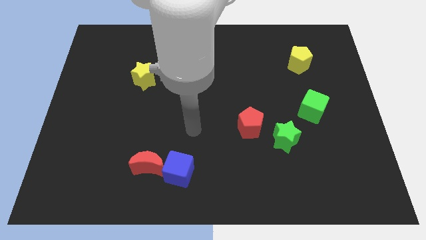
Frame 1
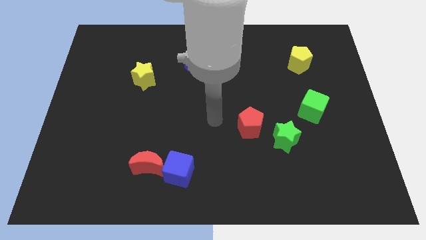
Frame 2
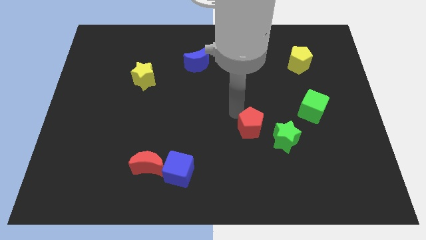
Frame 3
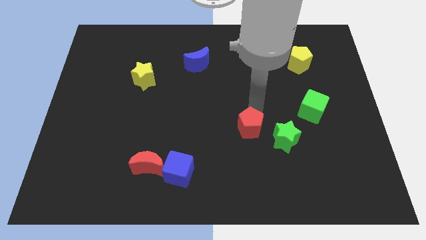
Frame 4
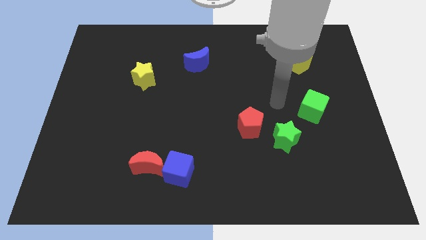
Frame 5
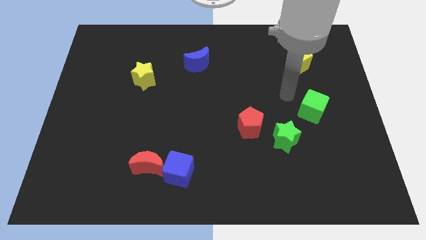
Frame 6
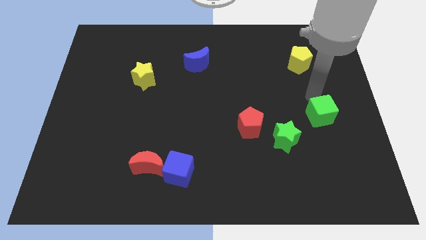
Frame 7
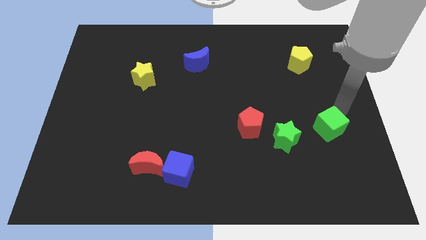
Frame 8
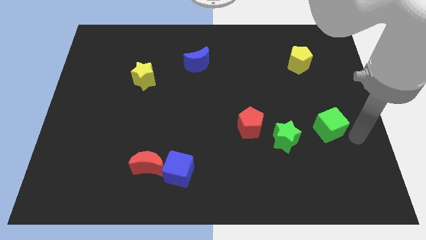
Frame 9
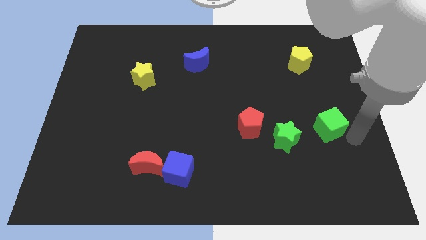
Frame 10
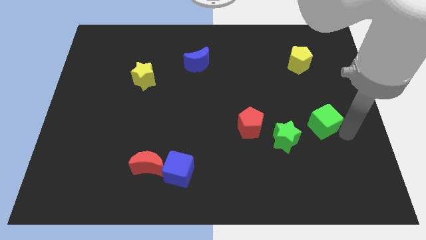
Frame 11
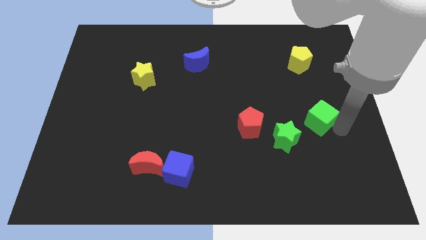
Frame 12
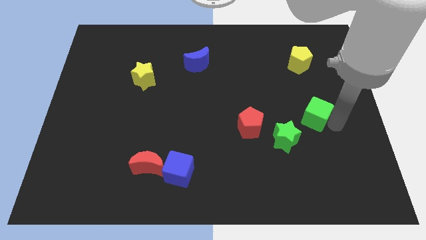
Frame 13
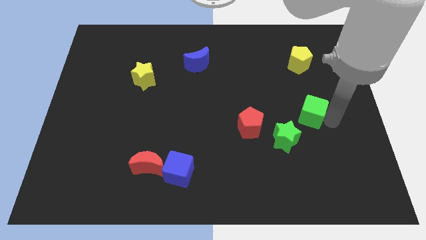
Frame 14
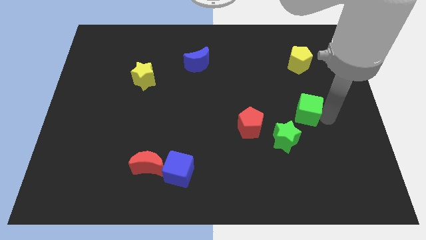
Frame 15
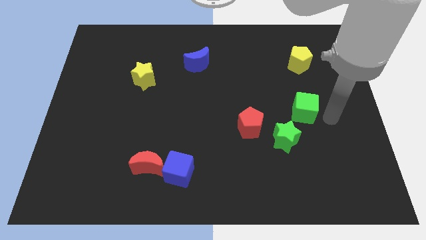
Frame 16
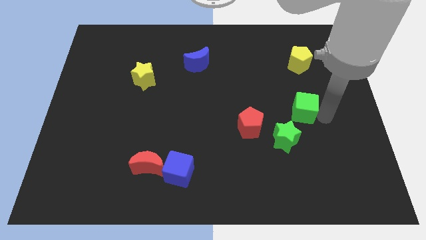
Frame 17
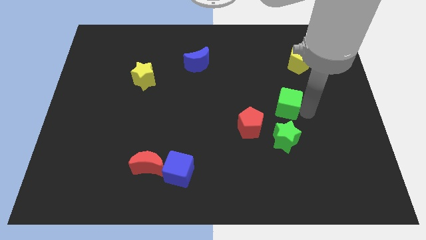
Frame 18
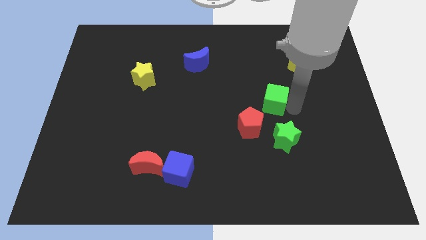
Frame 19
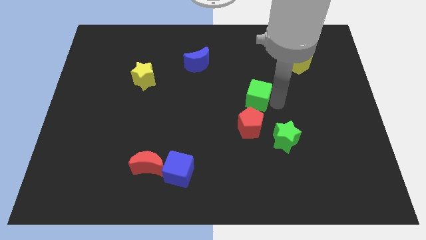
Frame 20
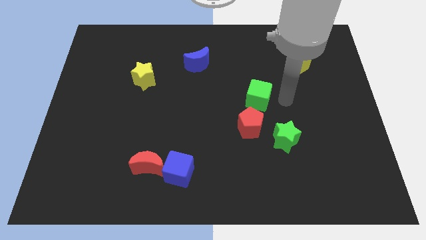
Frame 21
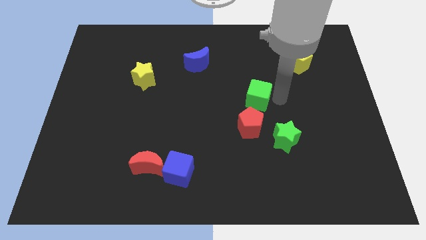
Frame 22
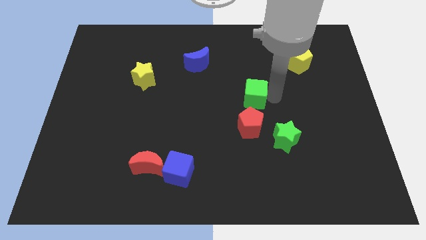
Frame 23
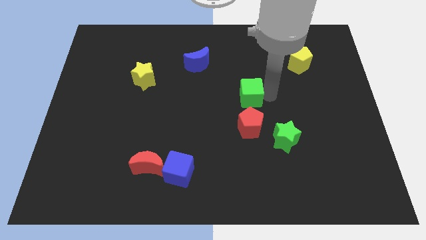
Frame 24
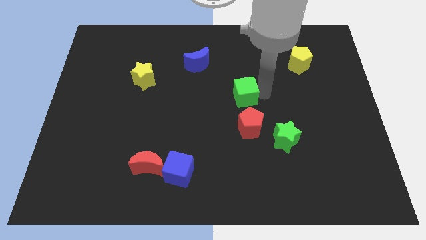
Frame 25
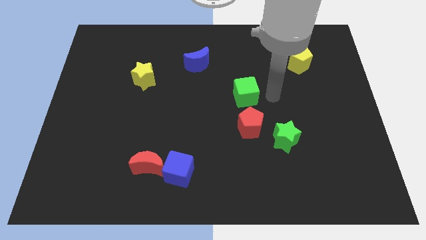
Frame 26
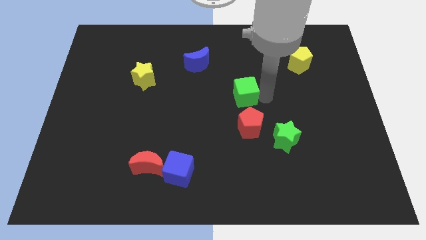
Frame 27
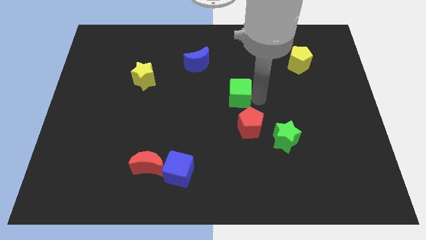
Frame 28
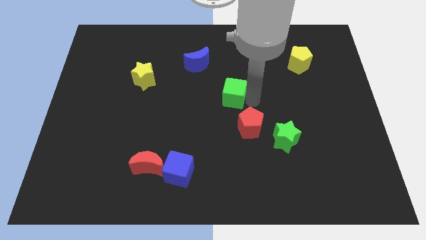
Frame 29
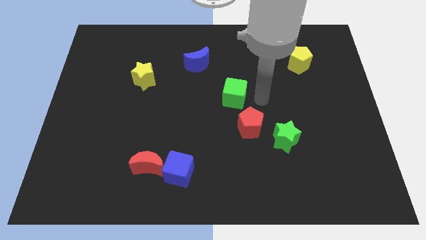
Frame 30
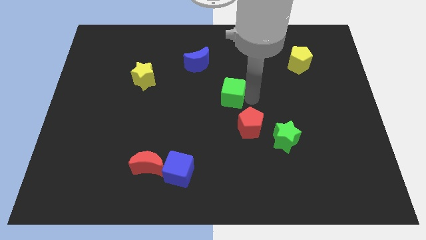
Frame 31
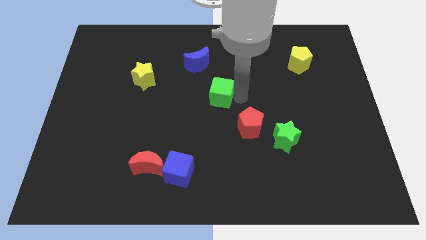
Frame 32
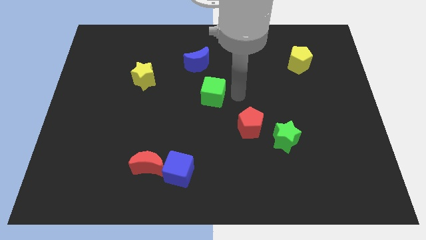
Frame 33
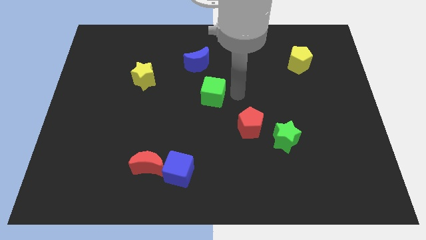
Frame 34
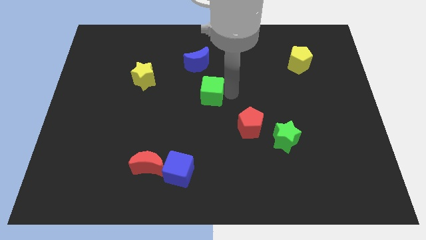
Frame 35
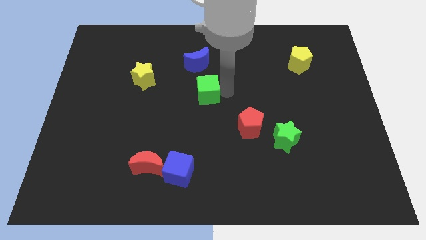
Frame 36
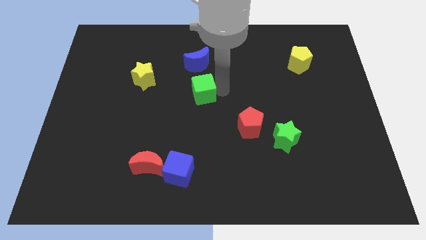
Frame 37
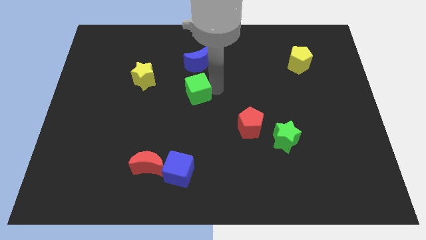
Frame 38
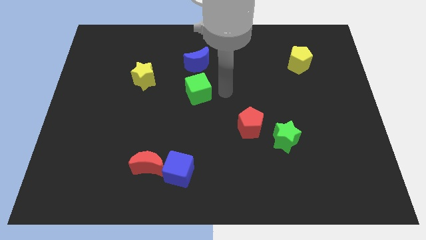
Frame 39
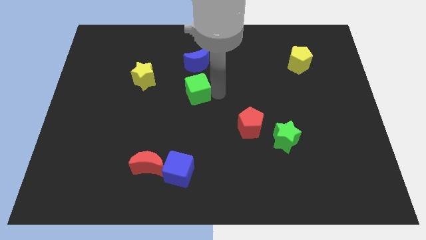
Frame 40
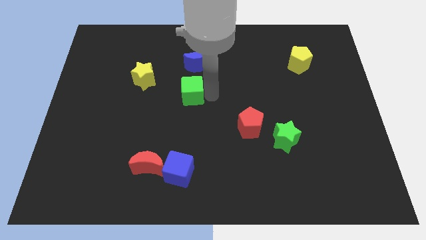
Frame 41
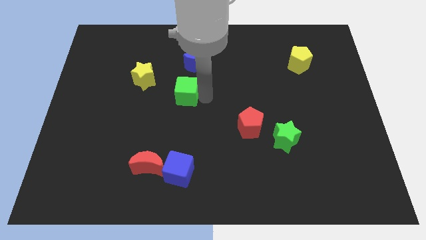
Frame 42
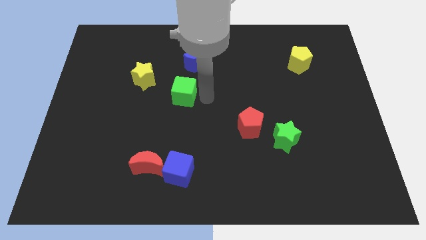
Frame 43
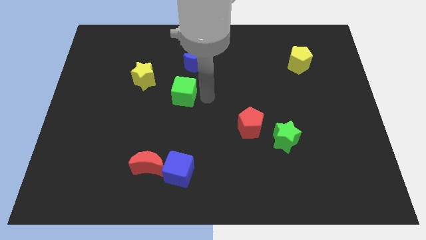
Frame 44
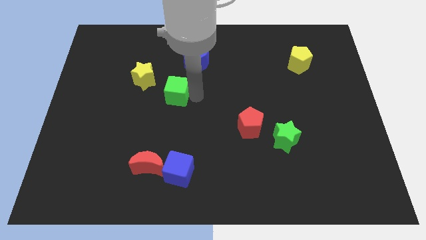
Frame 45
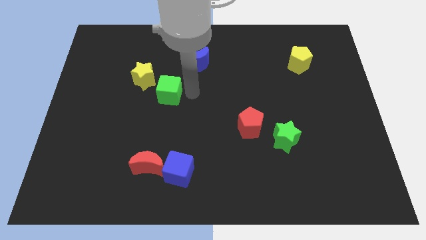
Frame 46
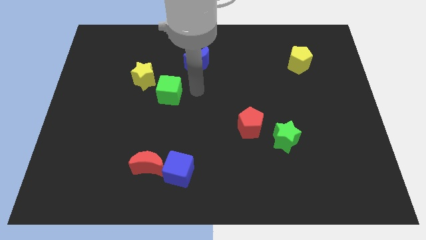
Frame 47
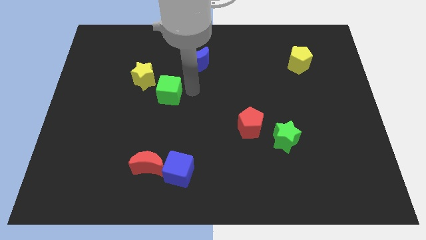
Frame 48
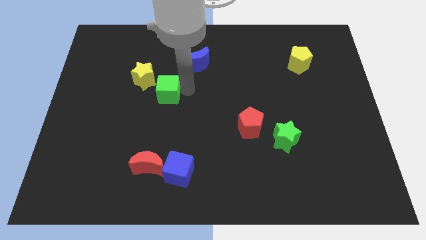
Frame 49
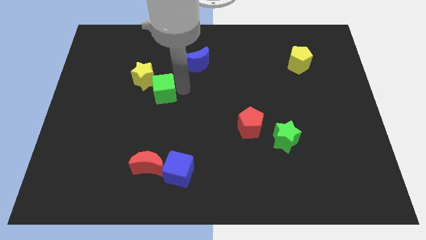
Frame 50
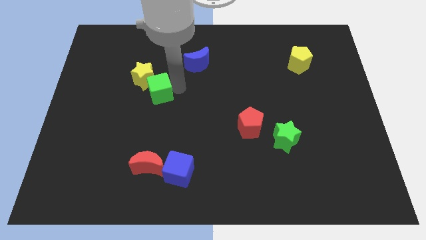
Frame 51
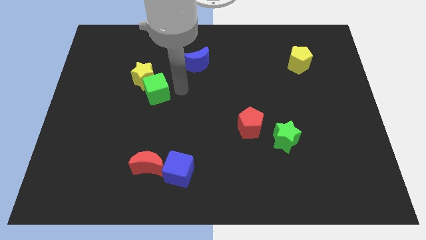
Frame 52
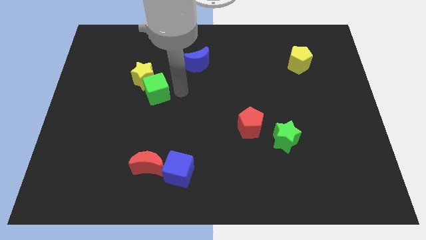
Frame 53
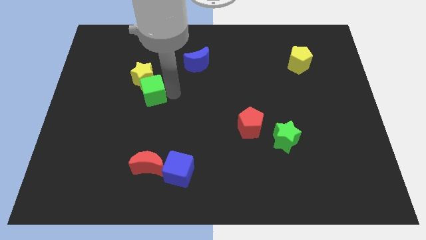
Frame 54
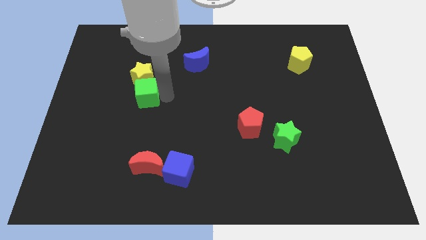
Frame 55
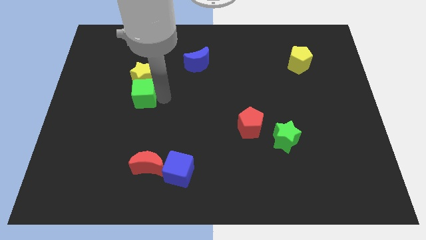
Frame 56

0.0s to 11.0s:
push the green cube to the bottom left side of the yellow star

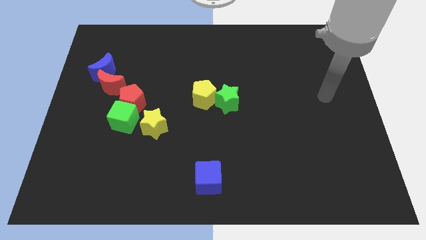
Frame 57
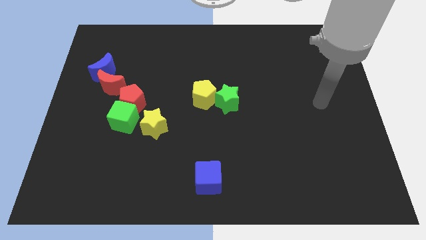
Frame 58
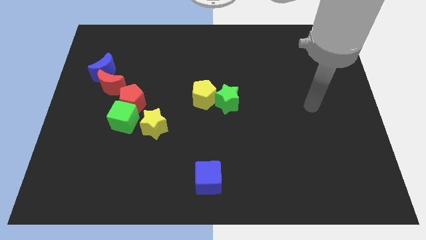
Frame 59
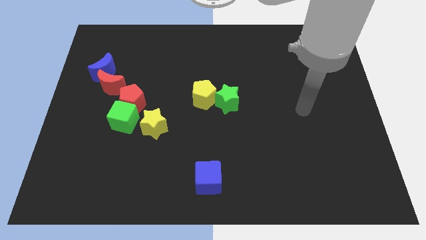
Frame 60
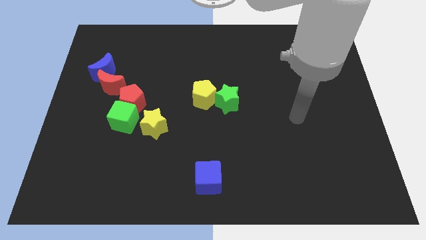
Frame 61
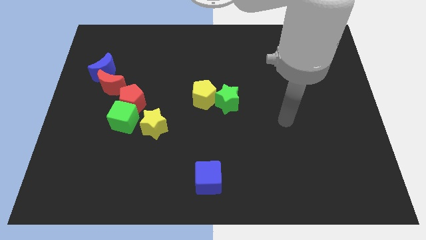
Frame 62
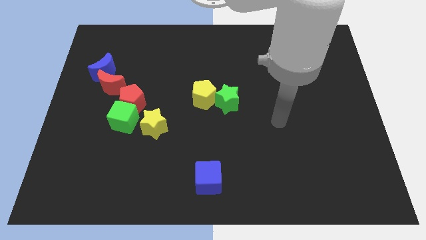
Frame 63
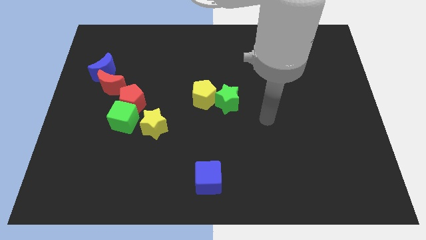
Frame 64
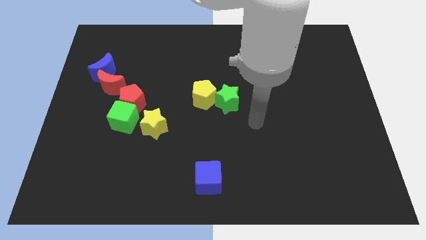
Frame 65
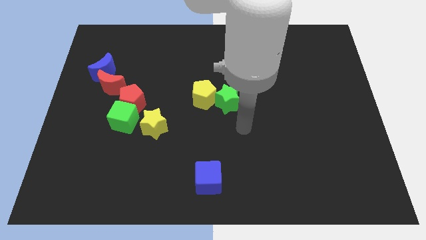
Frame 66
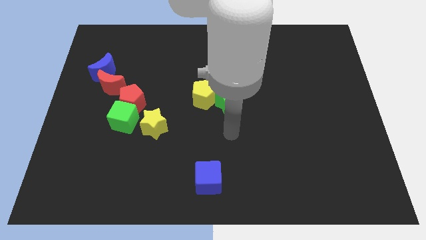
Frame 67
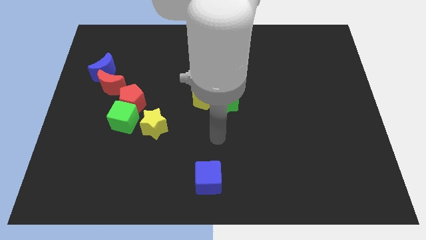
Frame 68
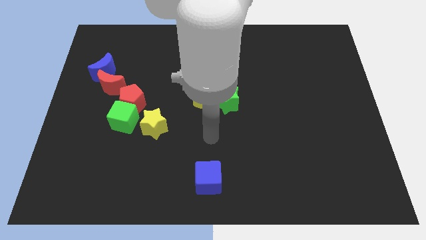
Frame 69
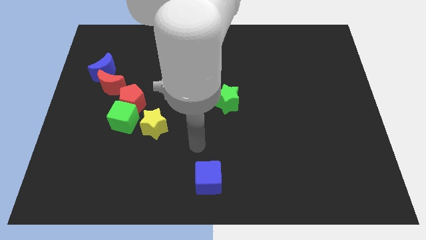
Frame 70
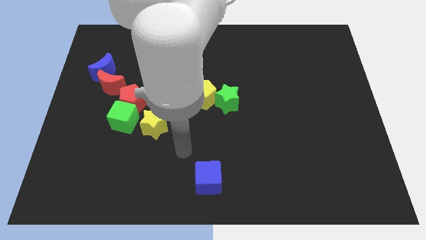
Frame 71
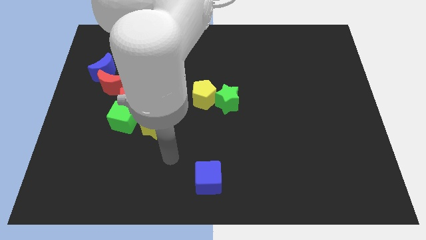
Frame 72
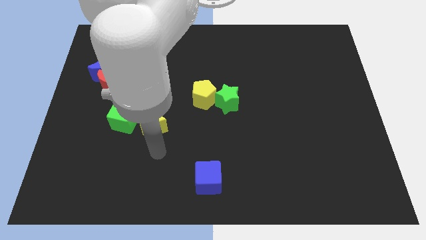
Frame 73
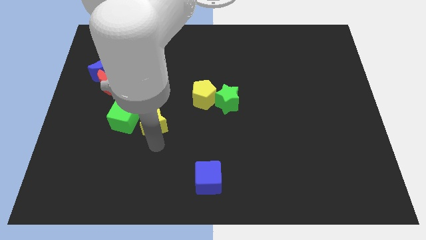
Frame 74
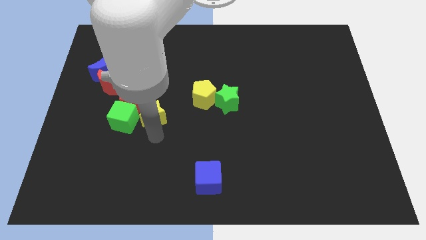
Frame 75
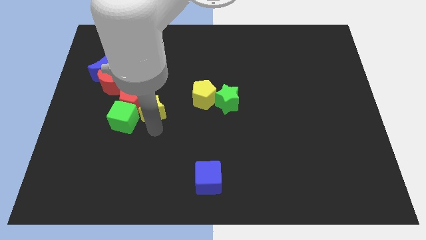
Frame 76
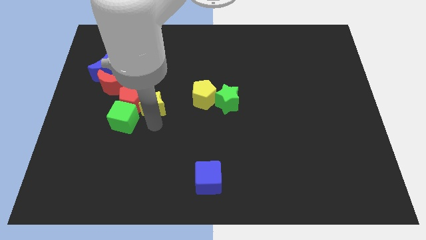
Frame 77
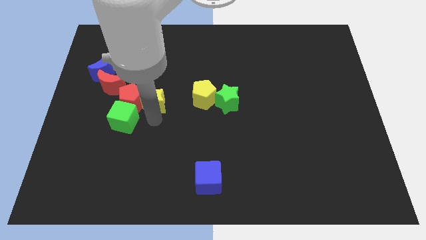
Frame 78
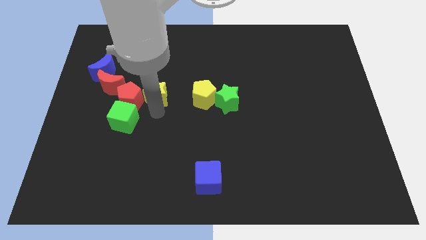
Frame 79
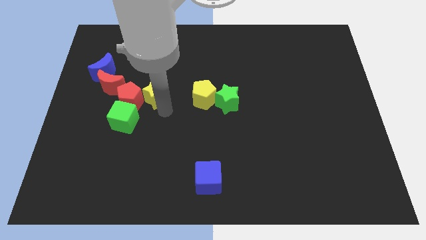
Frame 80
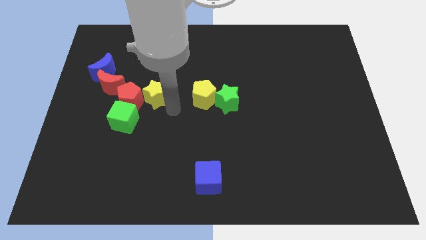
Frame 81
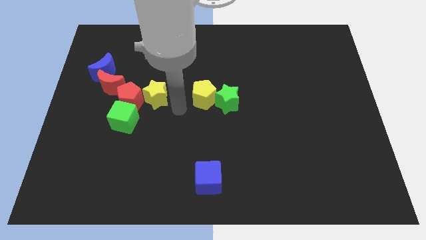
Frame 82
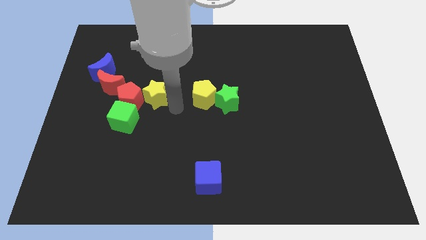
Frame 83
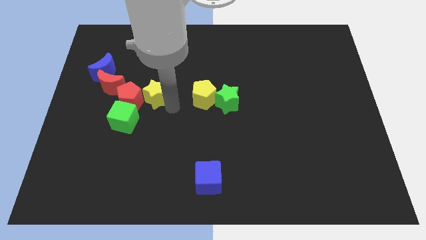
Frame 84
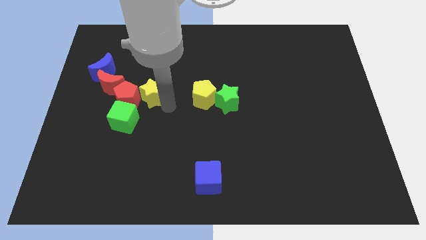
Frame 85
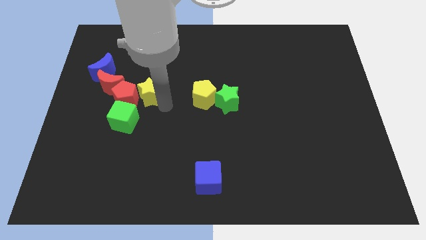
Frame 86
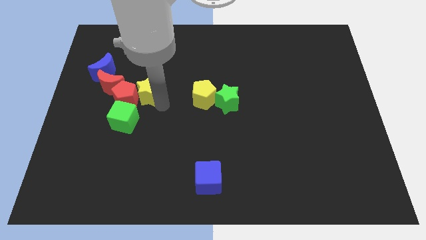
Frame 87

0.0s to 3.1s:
push the yellow star above the green cube
